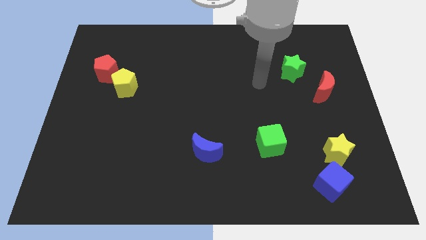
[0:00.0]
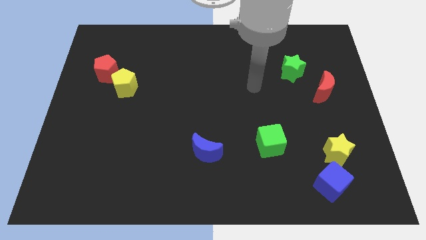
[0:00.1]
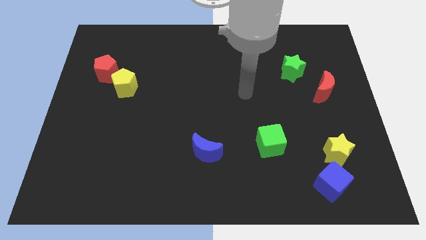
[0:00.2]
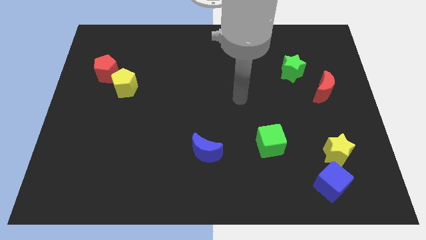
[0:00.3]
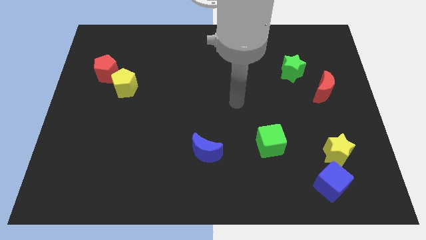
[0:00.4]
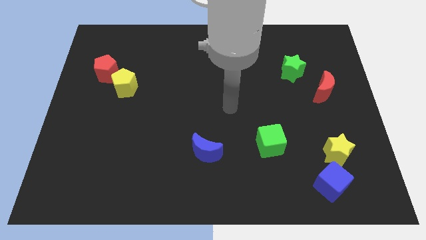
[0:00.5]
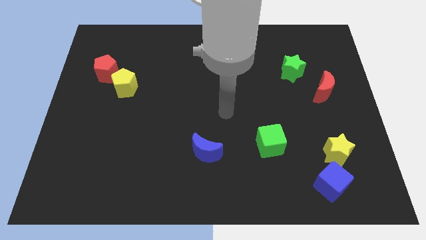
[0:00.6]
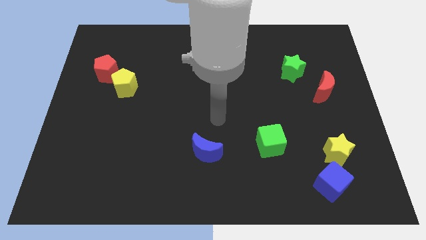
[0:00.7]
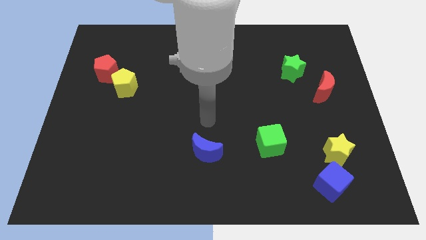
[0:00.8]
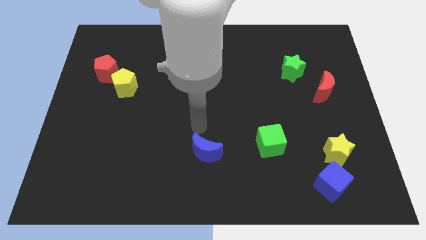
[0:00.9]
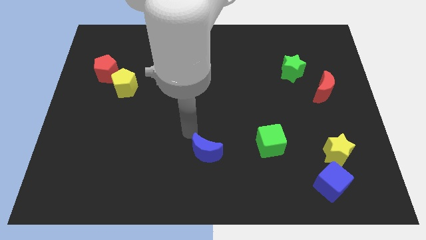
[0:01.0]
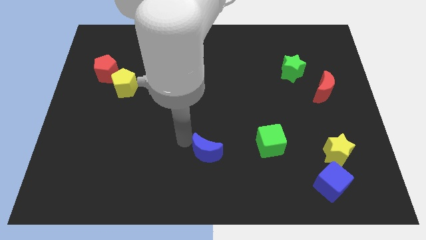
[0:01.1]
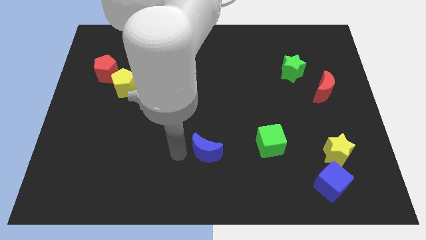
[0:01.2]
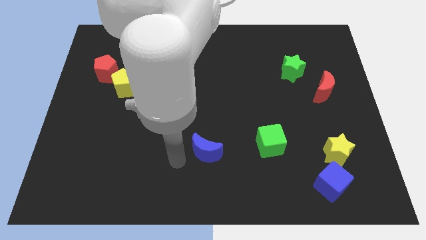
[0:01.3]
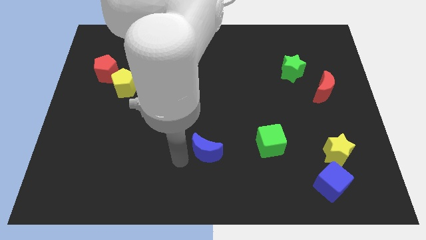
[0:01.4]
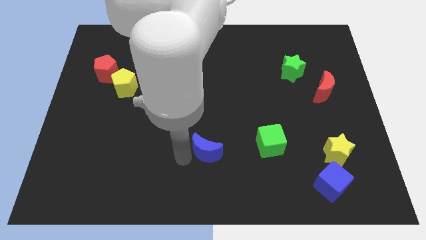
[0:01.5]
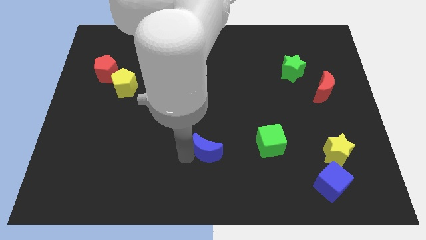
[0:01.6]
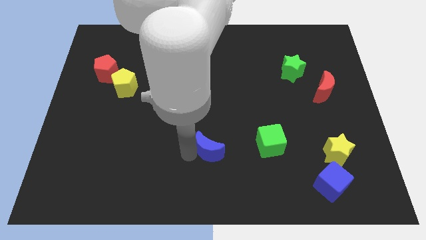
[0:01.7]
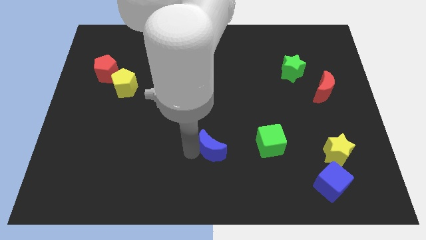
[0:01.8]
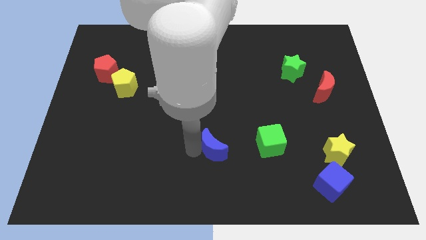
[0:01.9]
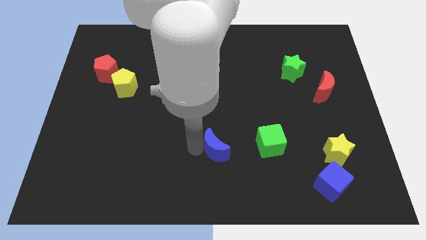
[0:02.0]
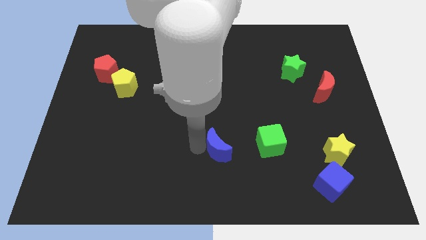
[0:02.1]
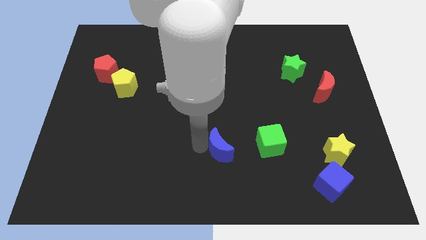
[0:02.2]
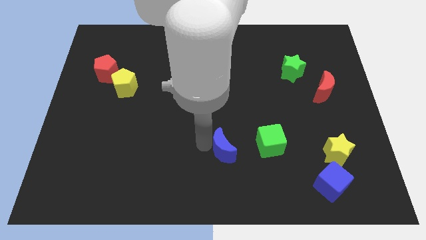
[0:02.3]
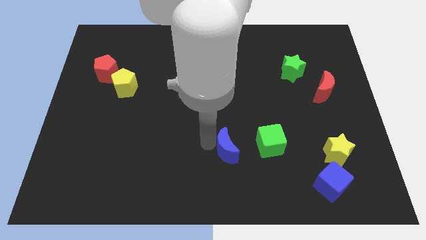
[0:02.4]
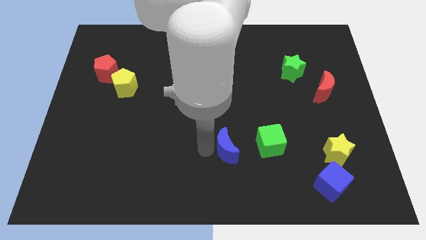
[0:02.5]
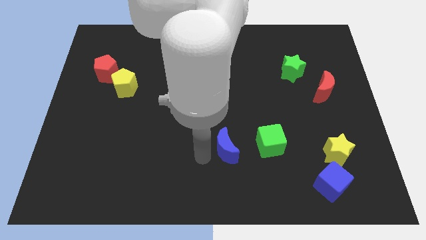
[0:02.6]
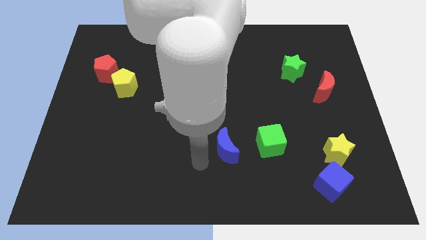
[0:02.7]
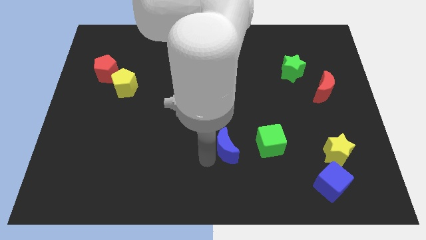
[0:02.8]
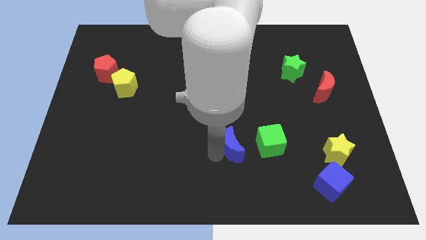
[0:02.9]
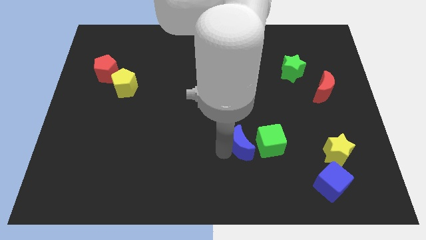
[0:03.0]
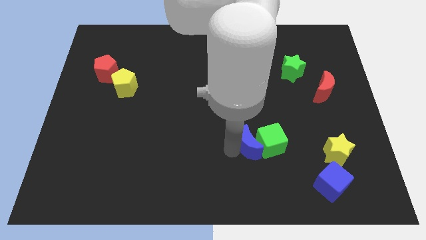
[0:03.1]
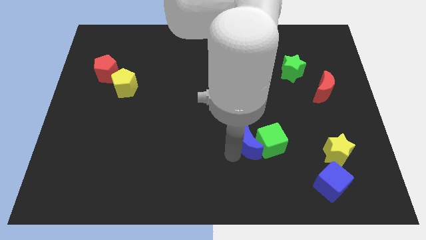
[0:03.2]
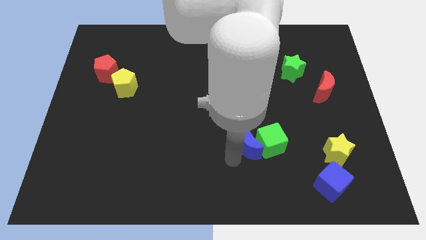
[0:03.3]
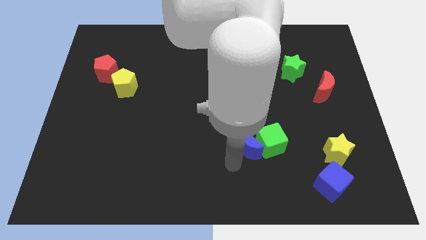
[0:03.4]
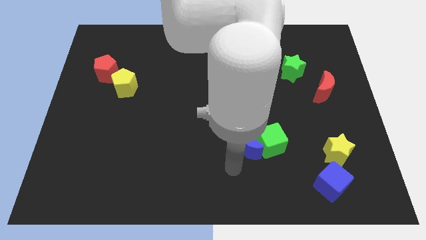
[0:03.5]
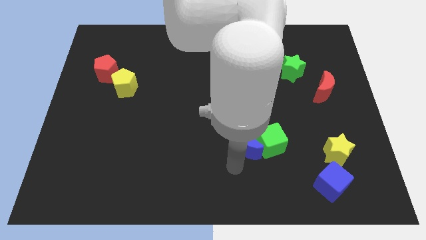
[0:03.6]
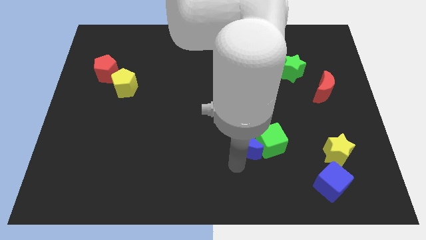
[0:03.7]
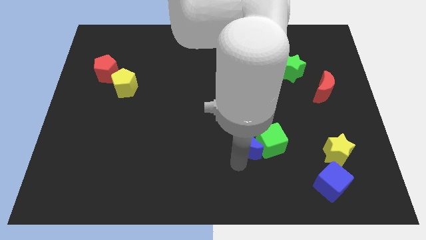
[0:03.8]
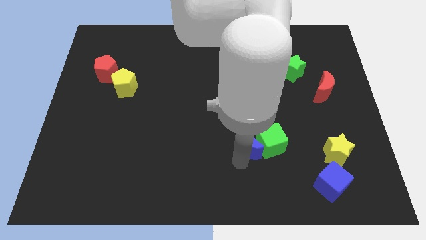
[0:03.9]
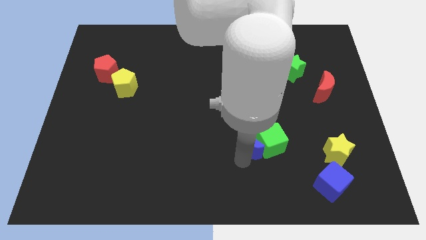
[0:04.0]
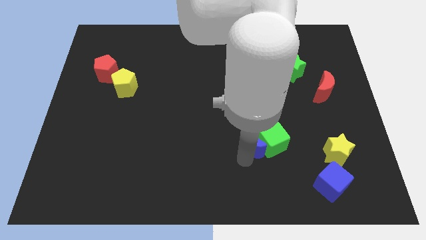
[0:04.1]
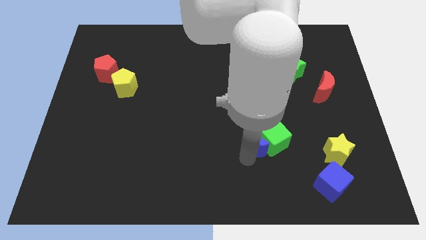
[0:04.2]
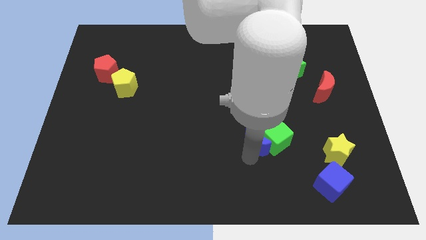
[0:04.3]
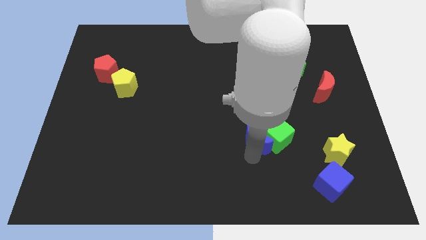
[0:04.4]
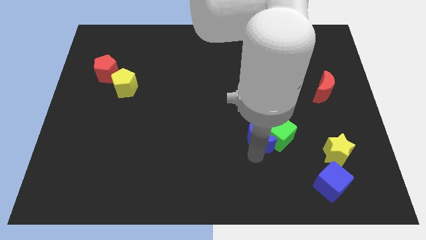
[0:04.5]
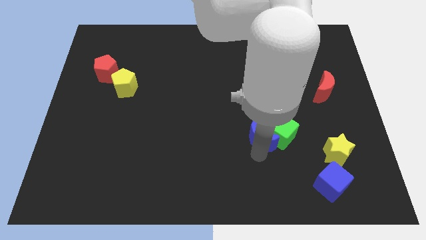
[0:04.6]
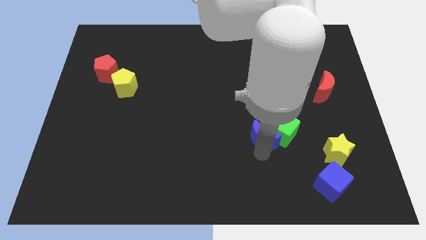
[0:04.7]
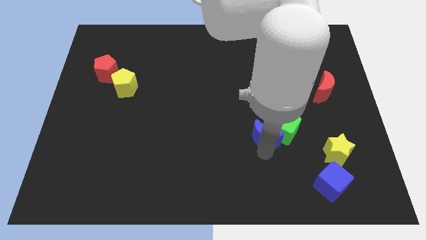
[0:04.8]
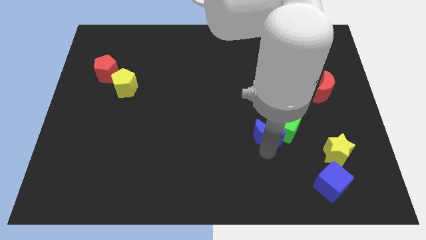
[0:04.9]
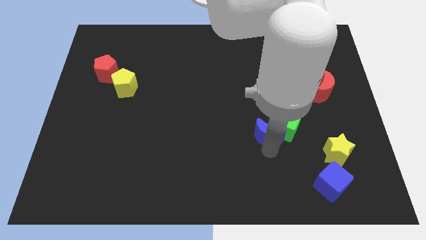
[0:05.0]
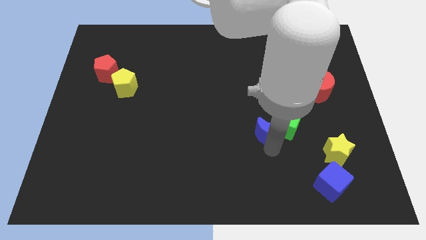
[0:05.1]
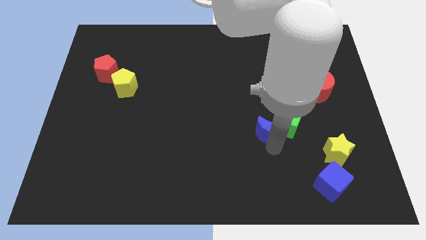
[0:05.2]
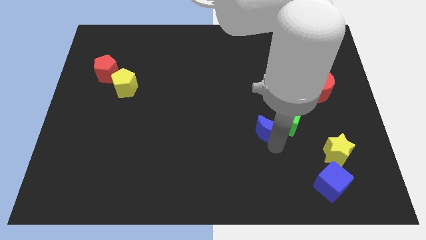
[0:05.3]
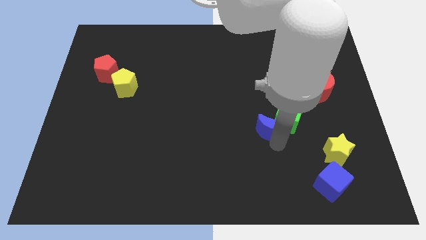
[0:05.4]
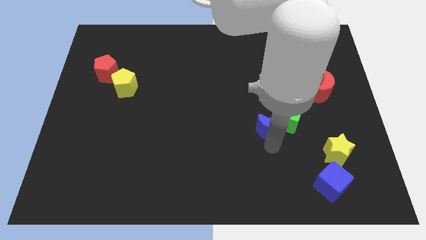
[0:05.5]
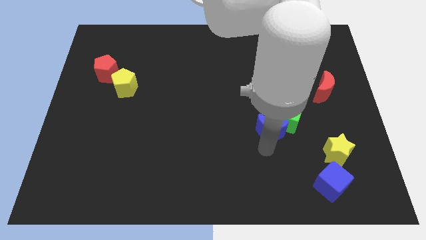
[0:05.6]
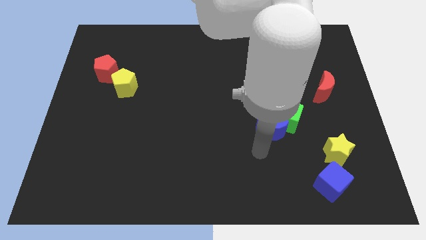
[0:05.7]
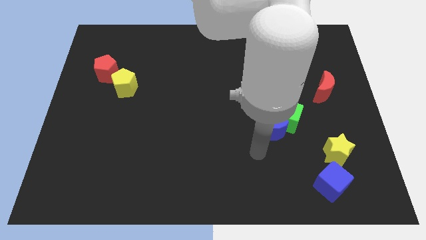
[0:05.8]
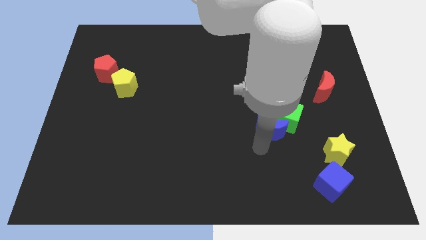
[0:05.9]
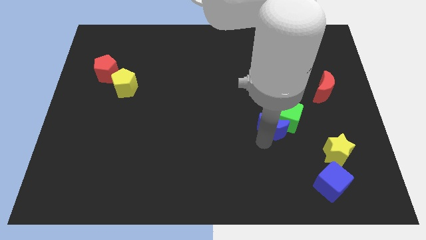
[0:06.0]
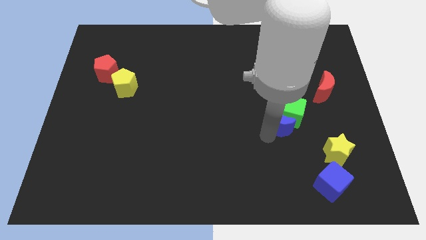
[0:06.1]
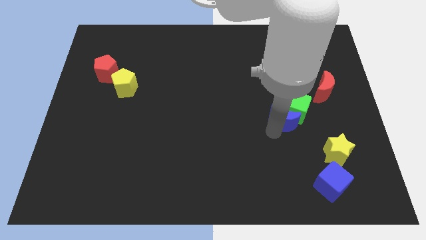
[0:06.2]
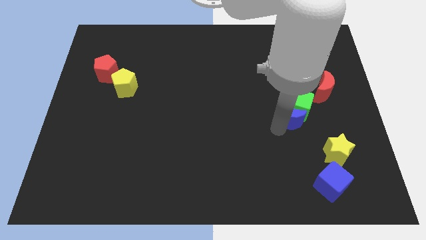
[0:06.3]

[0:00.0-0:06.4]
move the blue moon below the green star

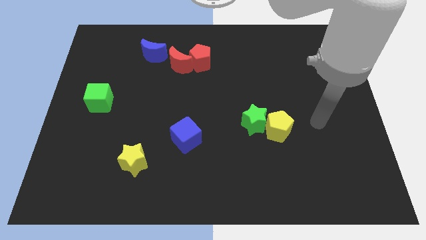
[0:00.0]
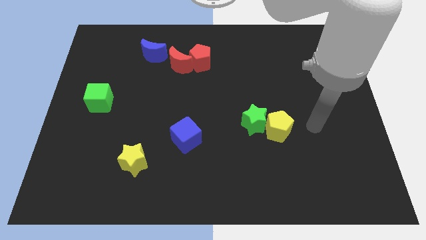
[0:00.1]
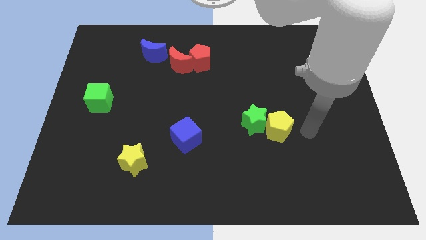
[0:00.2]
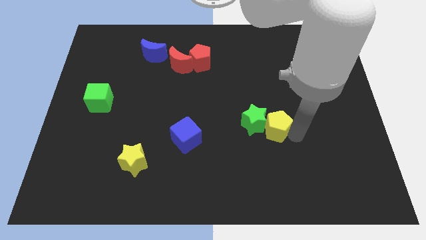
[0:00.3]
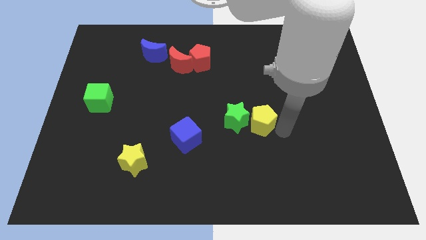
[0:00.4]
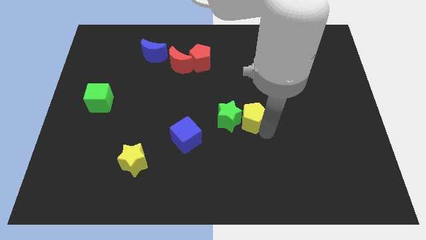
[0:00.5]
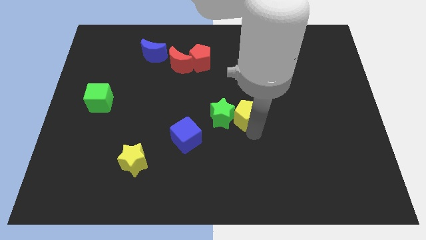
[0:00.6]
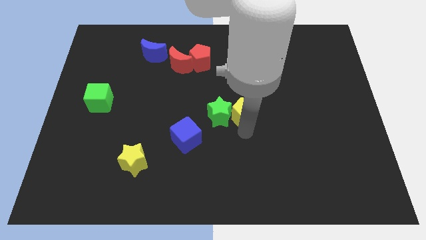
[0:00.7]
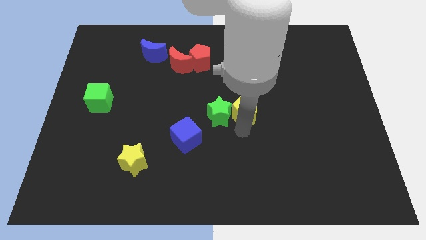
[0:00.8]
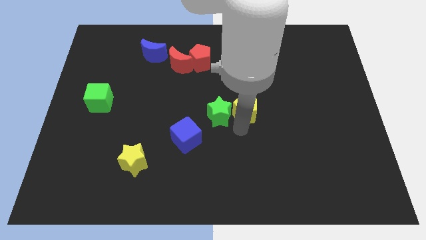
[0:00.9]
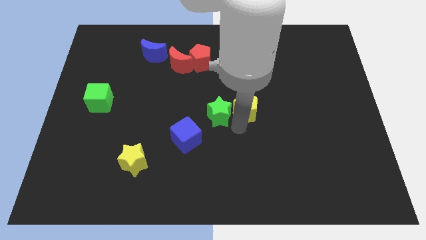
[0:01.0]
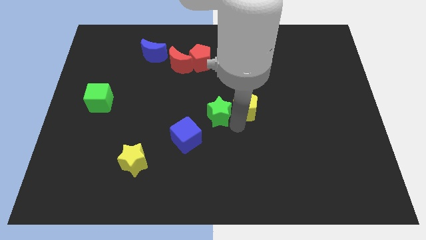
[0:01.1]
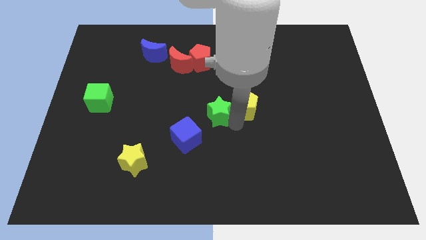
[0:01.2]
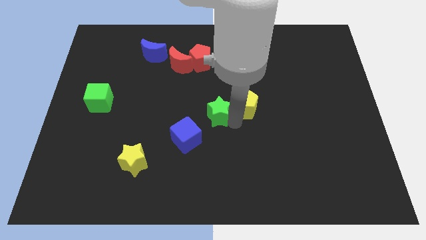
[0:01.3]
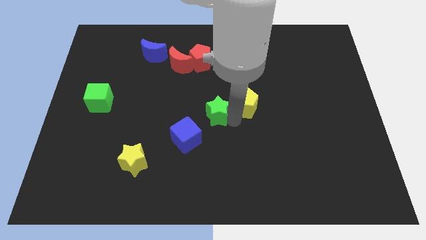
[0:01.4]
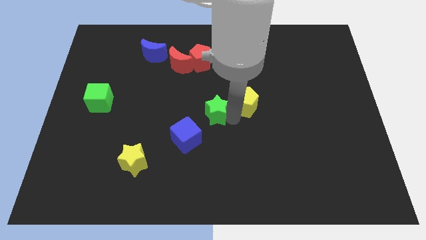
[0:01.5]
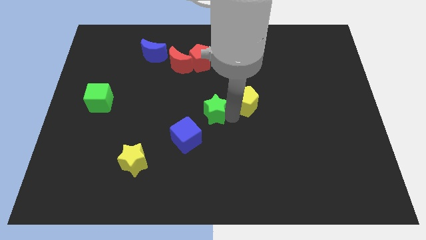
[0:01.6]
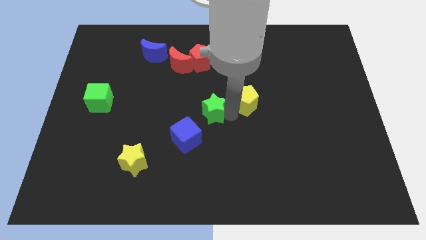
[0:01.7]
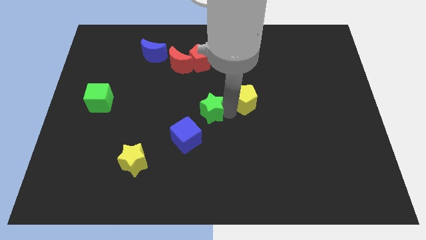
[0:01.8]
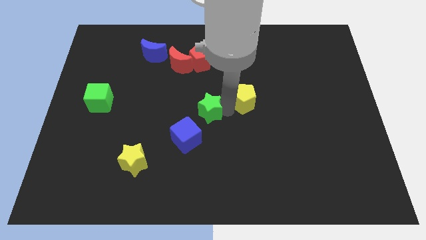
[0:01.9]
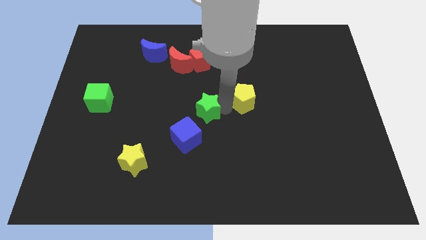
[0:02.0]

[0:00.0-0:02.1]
slide the green star above the blue cube
